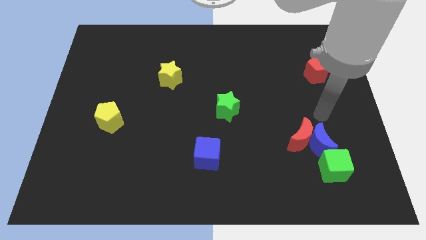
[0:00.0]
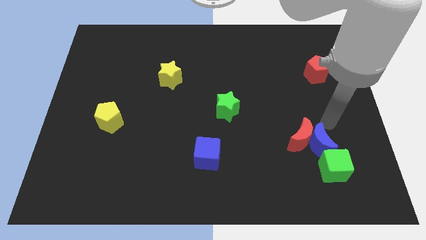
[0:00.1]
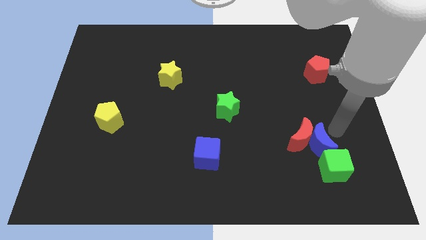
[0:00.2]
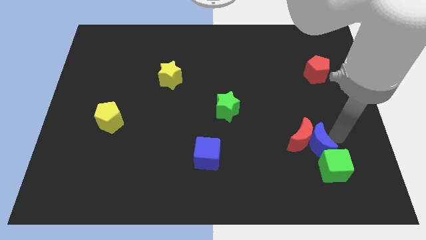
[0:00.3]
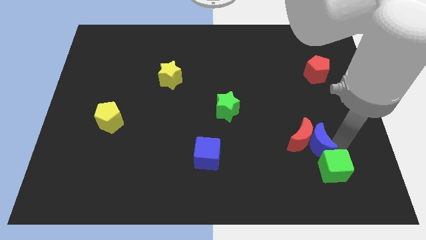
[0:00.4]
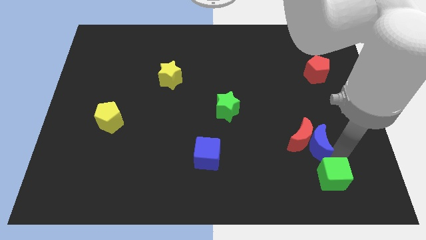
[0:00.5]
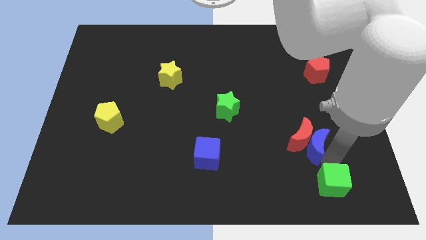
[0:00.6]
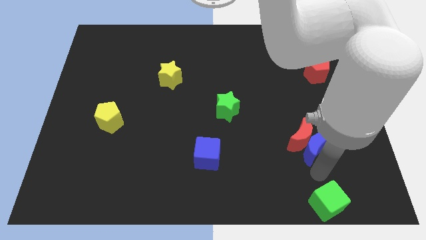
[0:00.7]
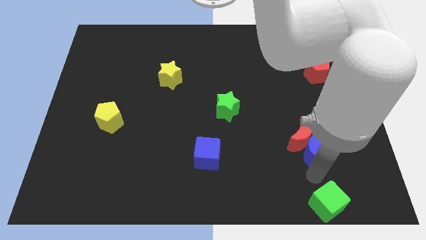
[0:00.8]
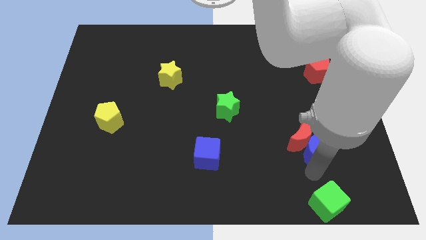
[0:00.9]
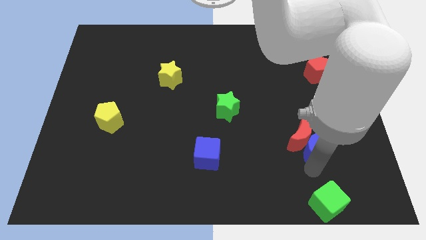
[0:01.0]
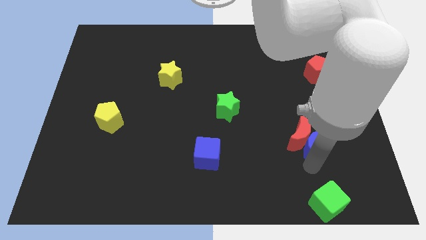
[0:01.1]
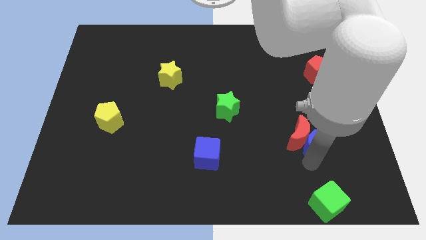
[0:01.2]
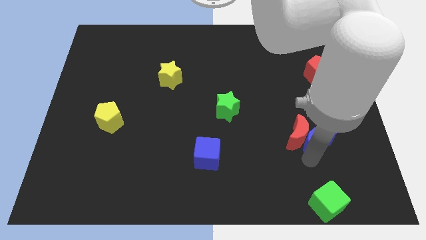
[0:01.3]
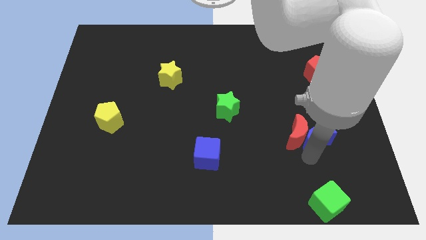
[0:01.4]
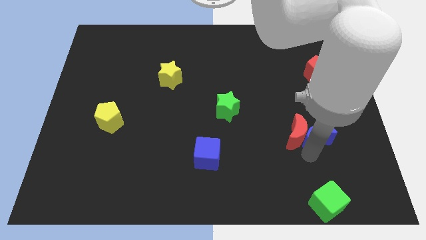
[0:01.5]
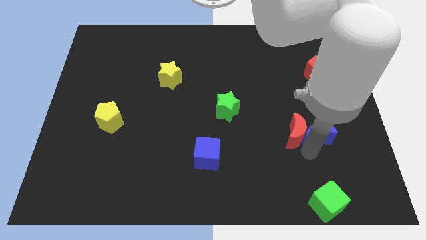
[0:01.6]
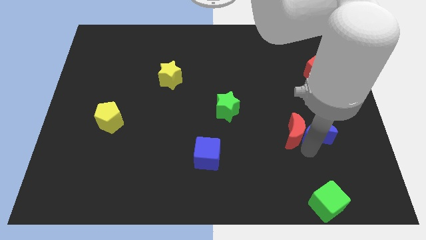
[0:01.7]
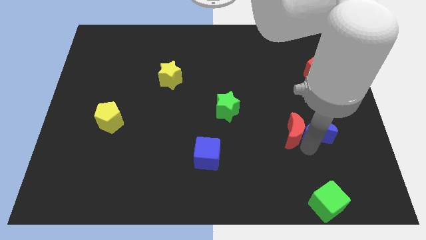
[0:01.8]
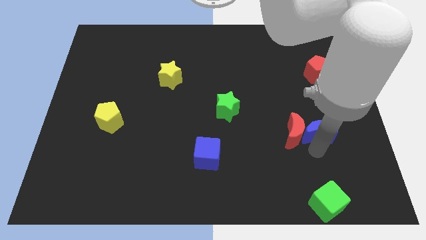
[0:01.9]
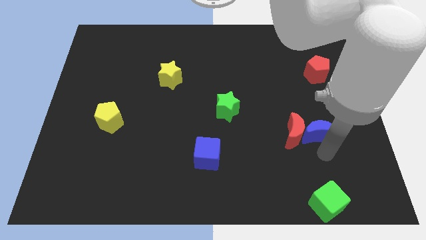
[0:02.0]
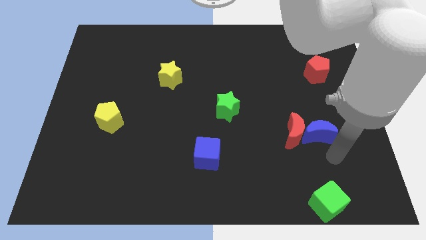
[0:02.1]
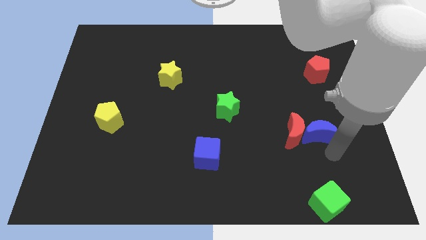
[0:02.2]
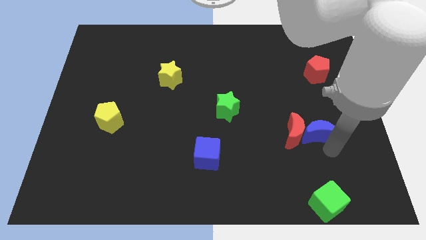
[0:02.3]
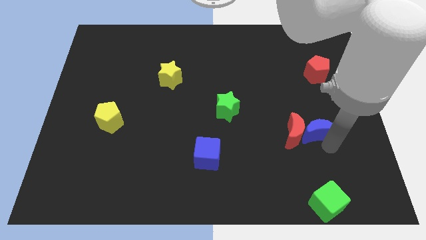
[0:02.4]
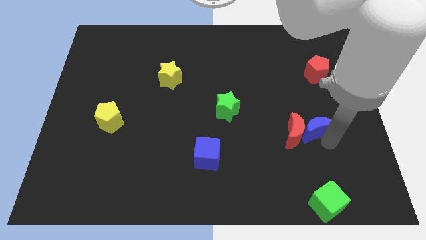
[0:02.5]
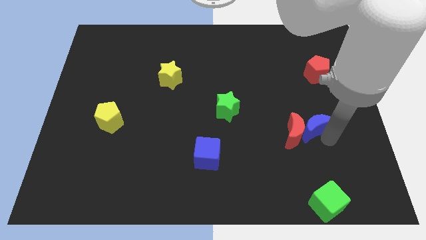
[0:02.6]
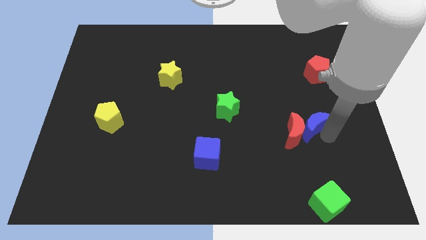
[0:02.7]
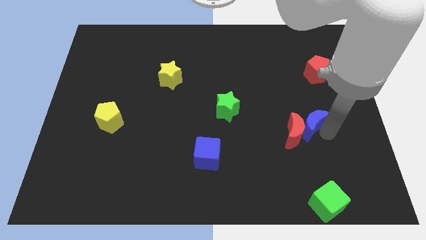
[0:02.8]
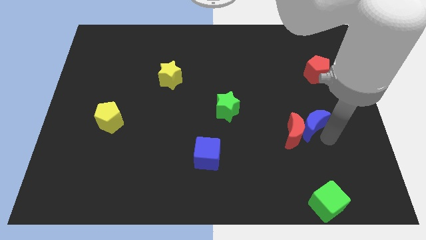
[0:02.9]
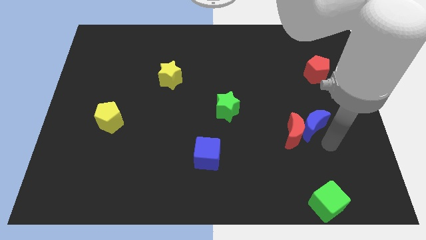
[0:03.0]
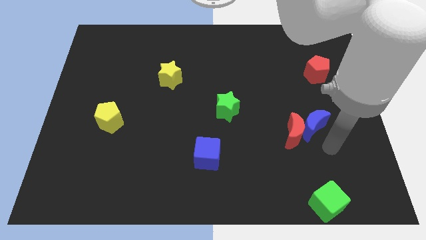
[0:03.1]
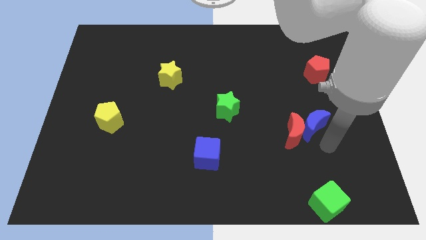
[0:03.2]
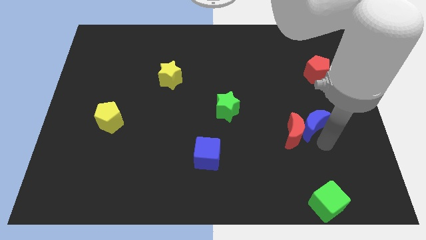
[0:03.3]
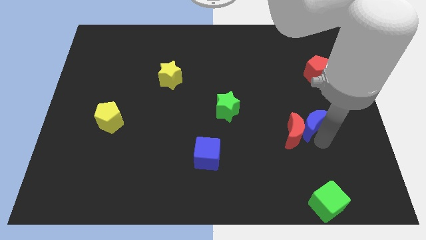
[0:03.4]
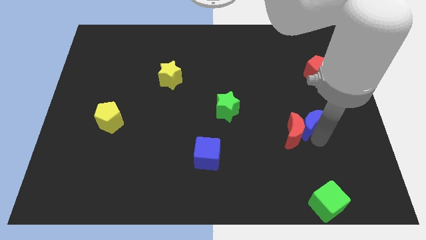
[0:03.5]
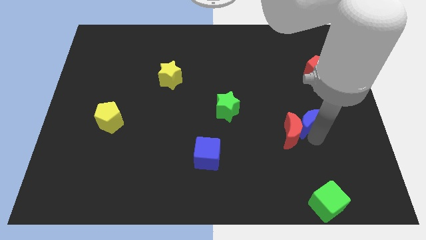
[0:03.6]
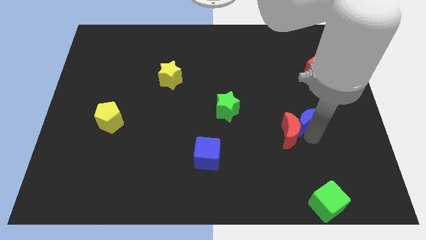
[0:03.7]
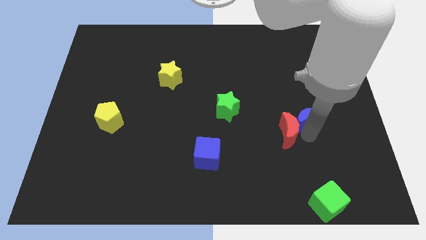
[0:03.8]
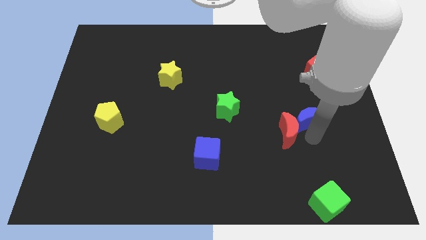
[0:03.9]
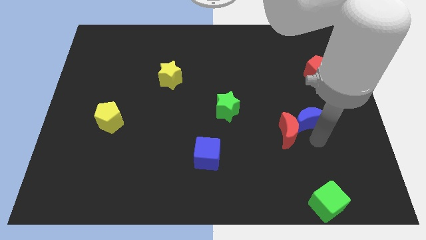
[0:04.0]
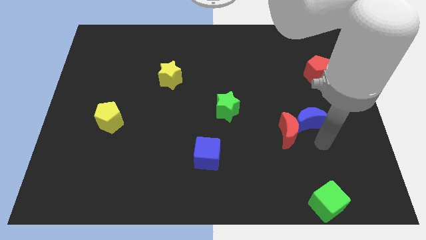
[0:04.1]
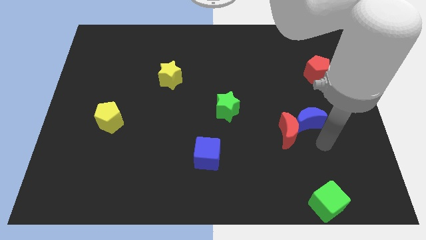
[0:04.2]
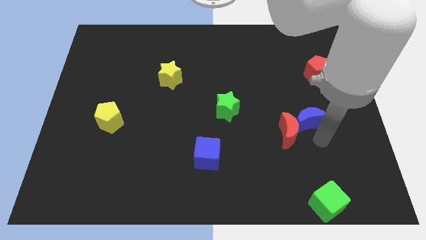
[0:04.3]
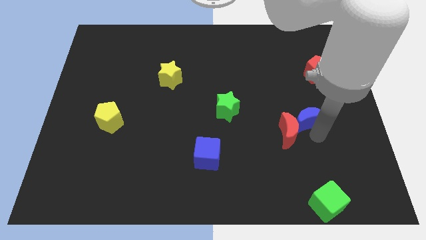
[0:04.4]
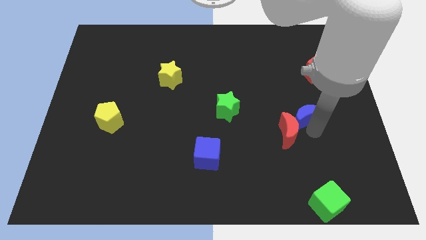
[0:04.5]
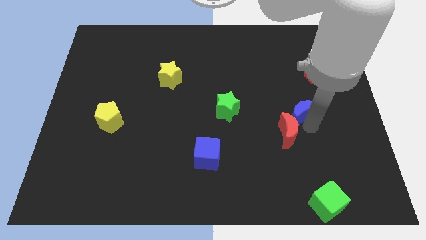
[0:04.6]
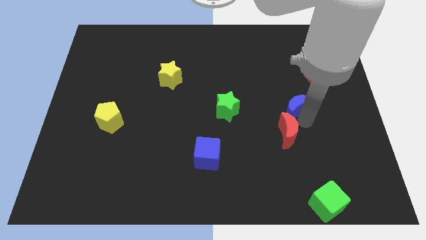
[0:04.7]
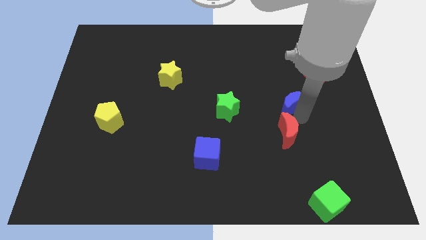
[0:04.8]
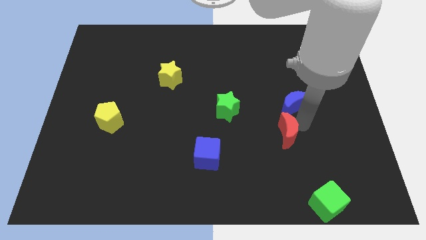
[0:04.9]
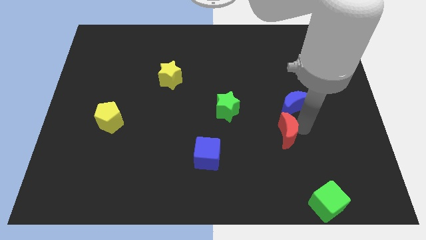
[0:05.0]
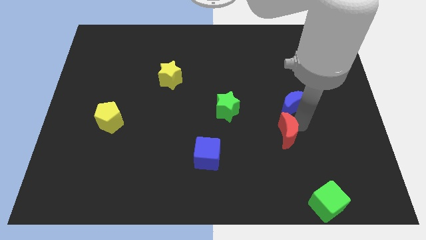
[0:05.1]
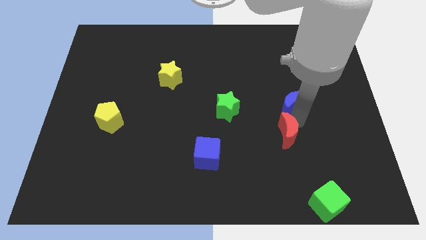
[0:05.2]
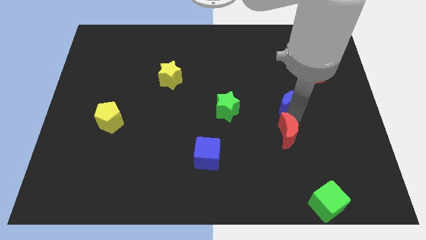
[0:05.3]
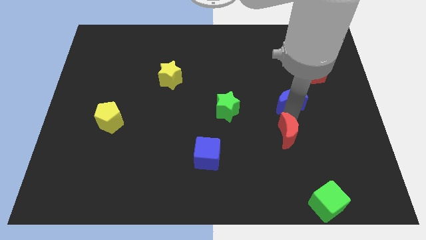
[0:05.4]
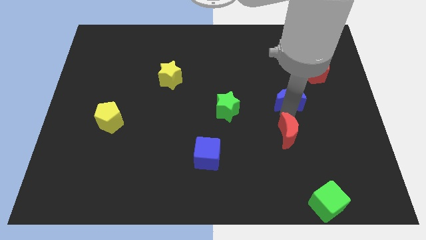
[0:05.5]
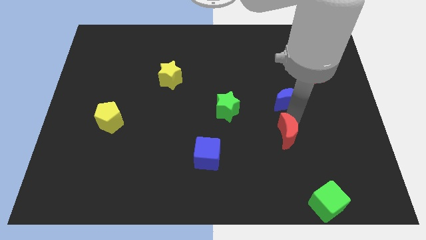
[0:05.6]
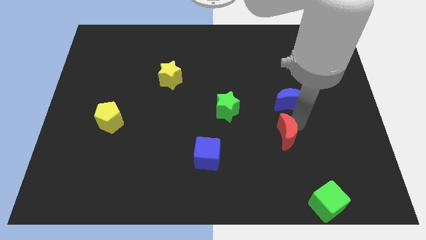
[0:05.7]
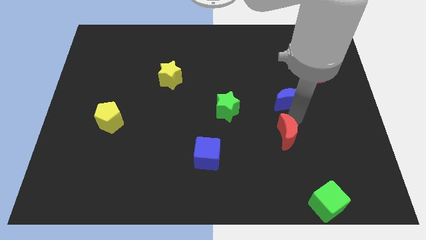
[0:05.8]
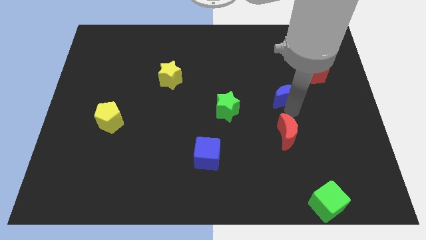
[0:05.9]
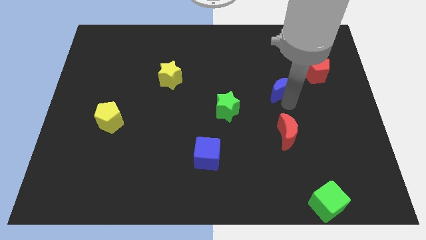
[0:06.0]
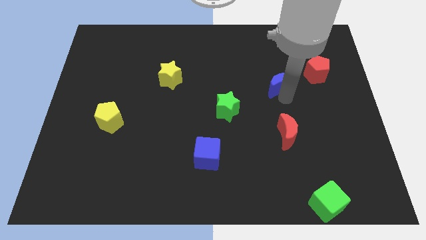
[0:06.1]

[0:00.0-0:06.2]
put the blue moon just left of the red pentagon

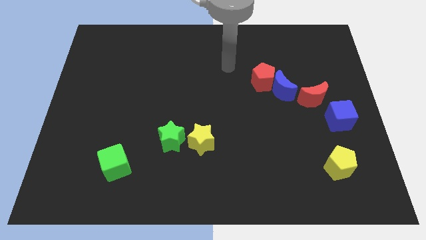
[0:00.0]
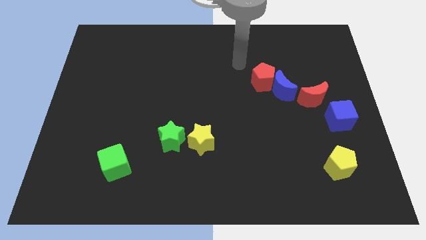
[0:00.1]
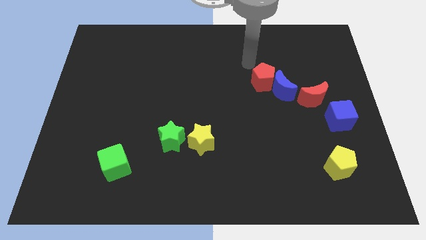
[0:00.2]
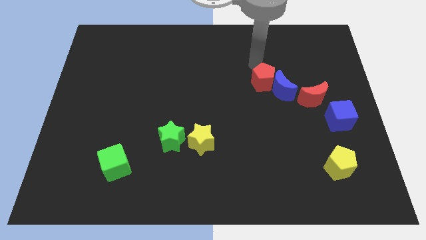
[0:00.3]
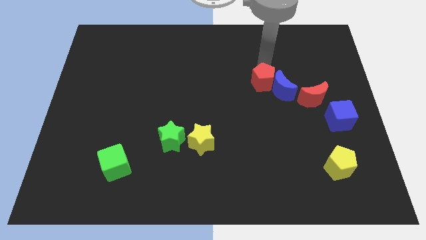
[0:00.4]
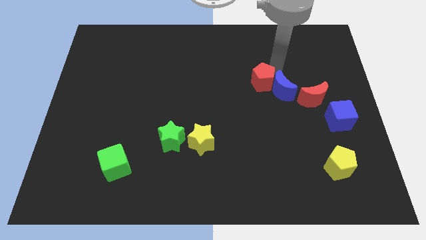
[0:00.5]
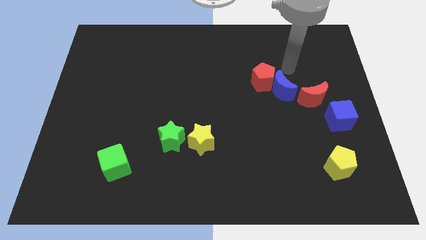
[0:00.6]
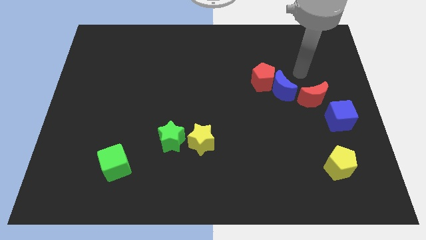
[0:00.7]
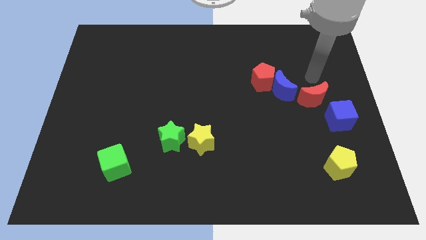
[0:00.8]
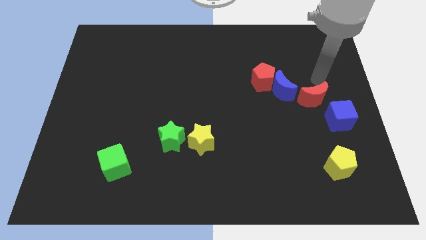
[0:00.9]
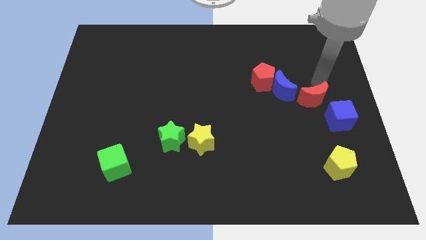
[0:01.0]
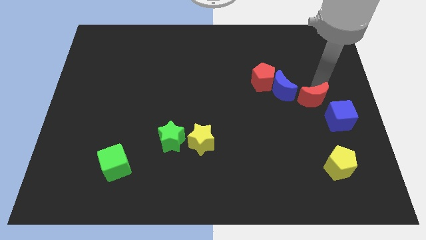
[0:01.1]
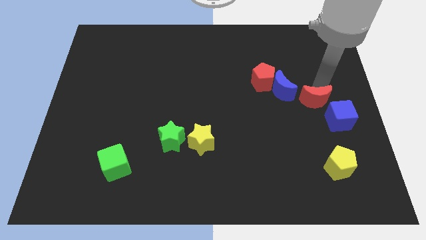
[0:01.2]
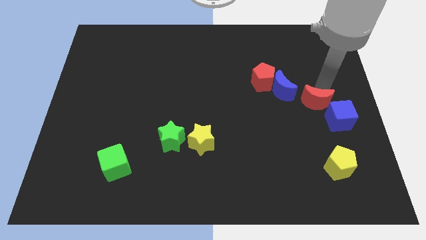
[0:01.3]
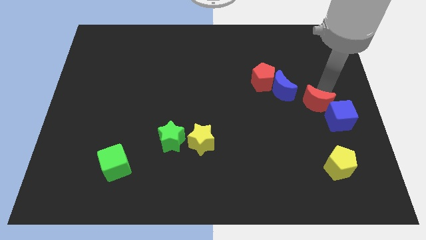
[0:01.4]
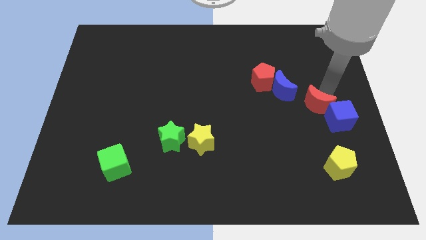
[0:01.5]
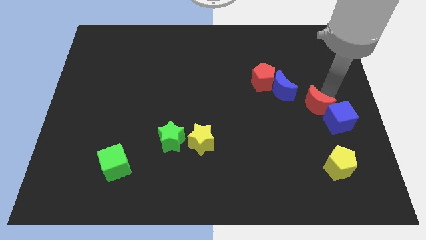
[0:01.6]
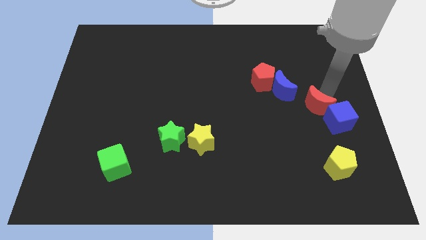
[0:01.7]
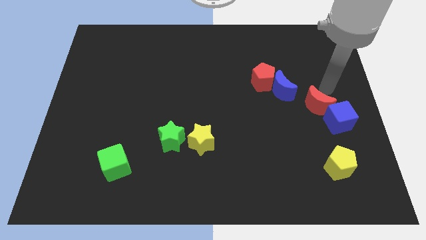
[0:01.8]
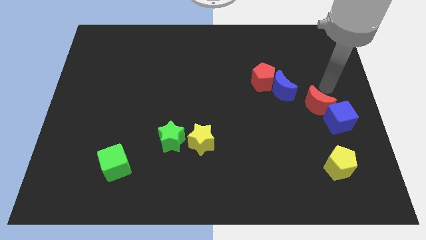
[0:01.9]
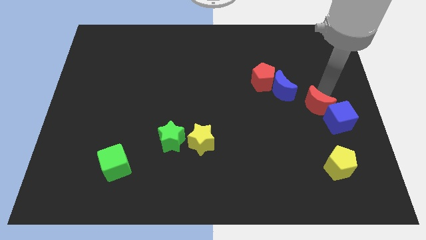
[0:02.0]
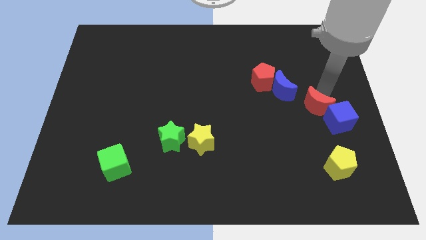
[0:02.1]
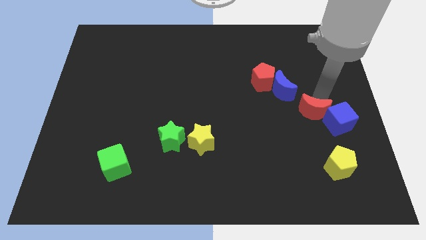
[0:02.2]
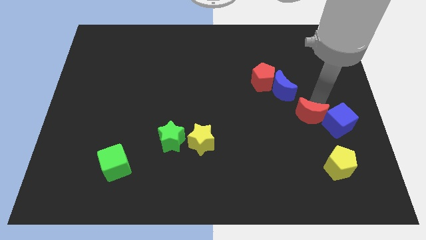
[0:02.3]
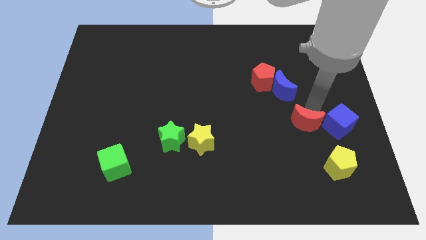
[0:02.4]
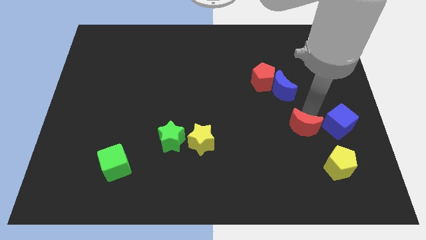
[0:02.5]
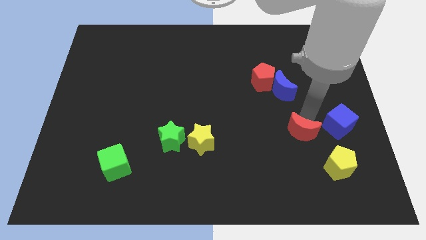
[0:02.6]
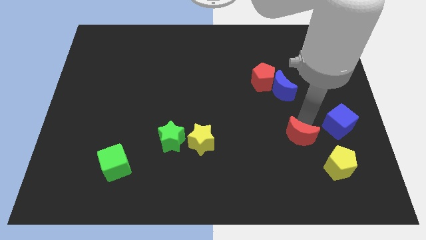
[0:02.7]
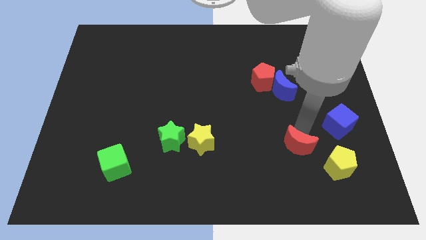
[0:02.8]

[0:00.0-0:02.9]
slide the red moon left of the yellow pentagon
